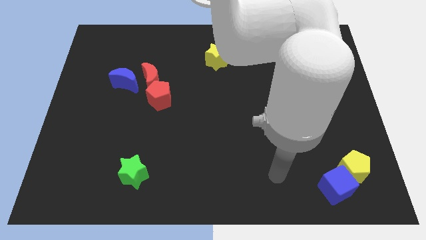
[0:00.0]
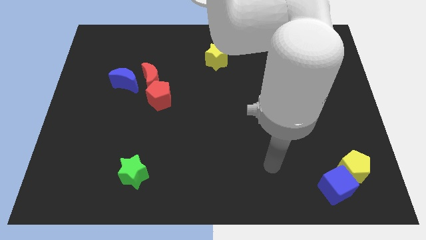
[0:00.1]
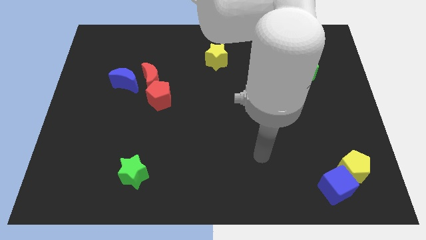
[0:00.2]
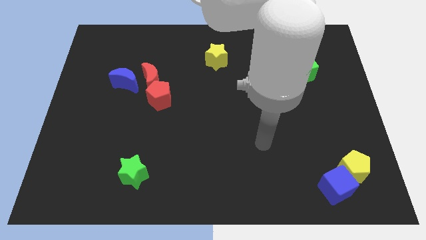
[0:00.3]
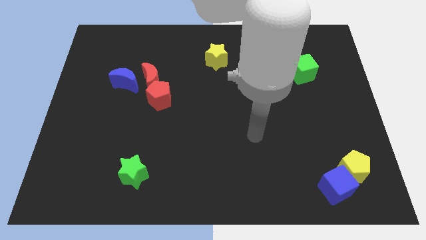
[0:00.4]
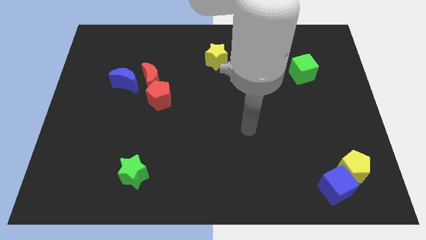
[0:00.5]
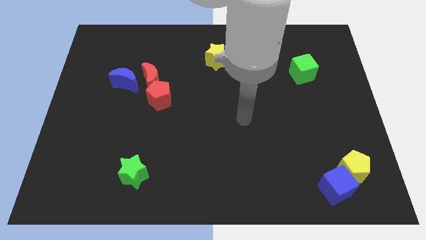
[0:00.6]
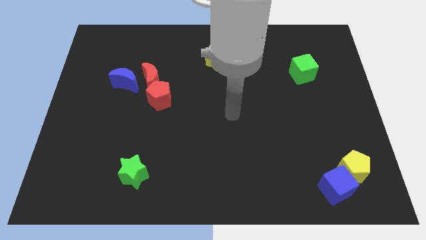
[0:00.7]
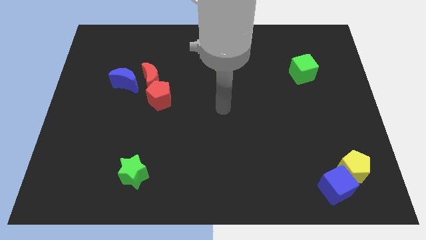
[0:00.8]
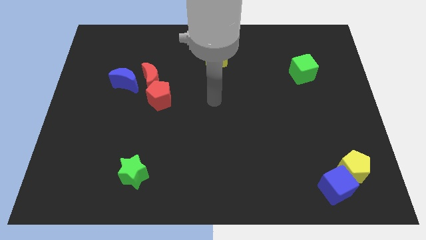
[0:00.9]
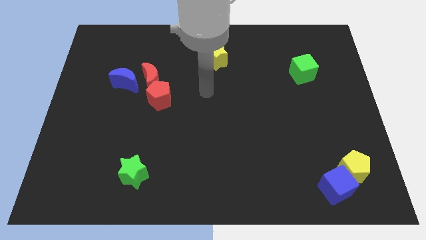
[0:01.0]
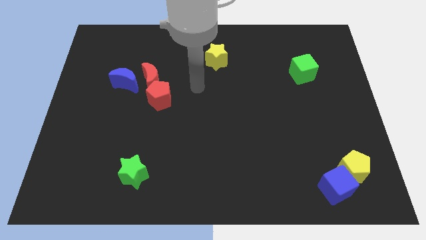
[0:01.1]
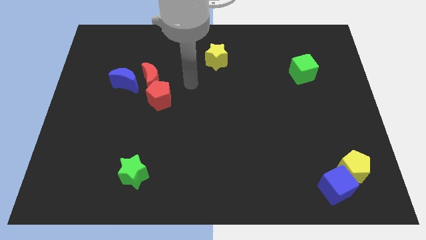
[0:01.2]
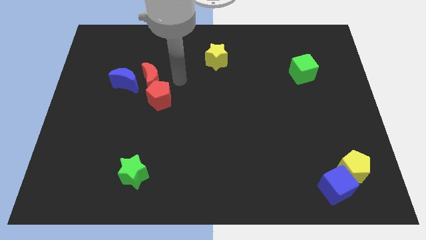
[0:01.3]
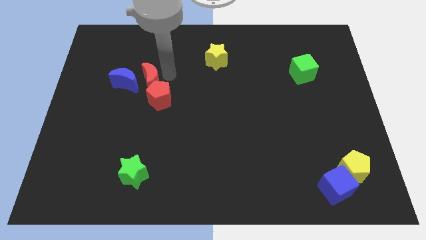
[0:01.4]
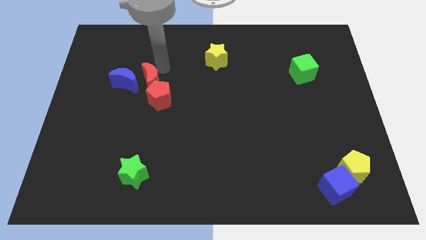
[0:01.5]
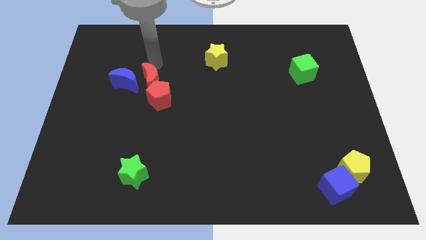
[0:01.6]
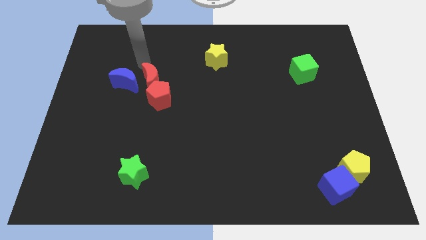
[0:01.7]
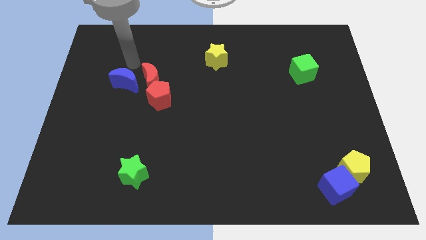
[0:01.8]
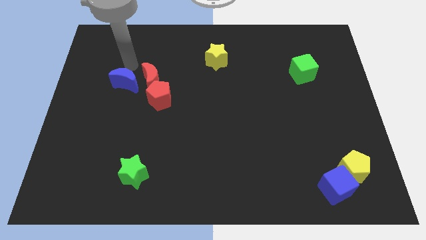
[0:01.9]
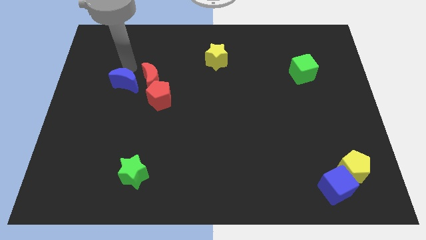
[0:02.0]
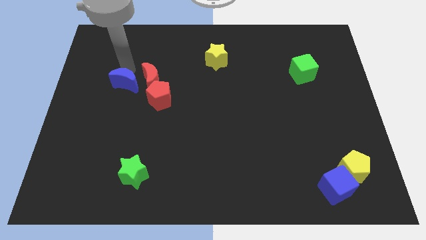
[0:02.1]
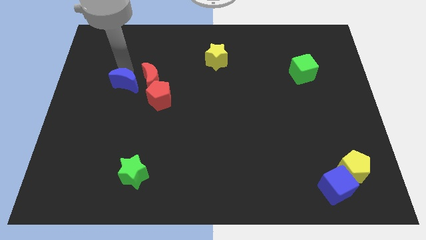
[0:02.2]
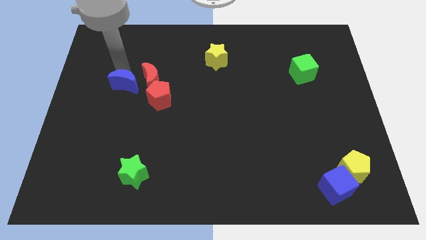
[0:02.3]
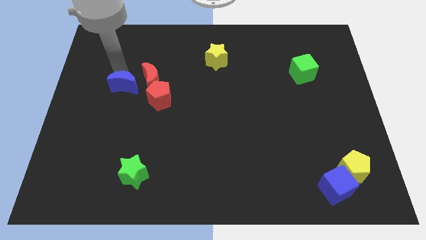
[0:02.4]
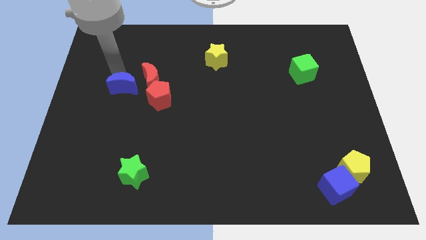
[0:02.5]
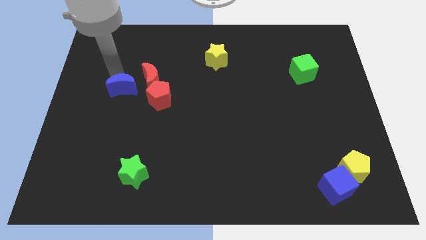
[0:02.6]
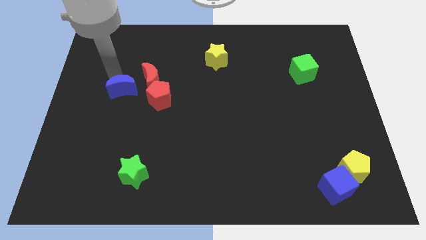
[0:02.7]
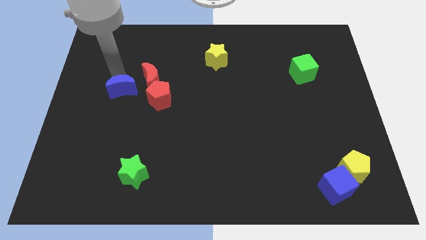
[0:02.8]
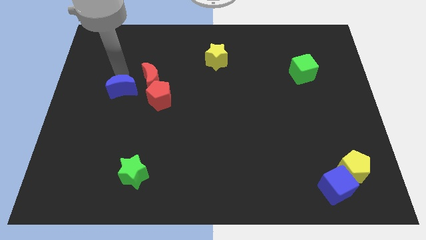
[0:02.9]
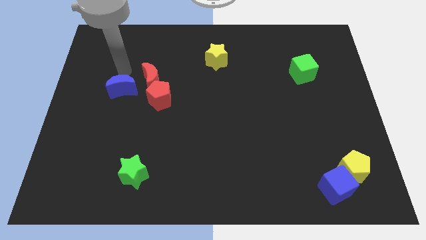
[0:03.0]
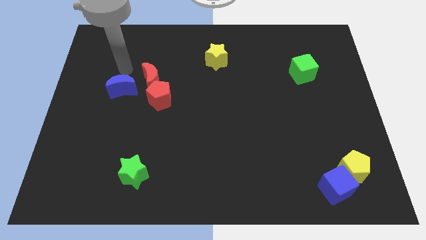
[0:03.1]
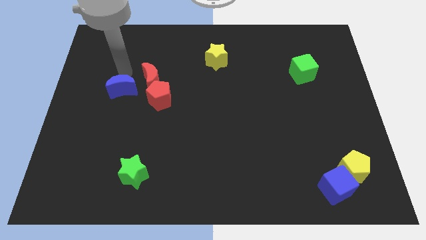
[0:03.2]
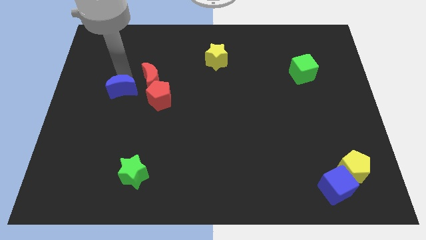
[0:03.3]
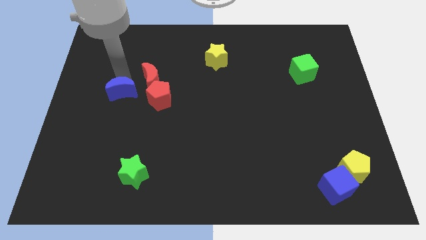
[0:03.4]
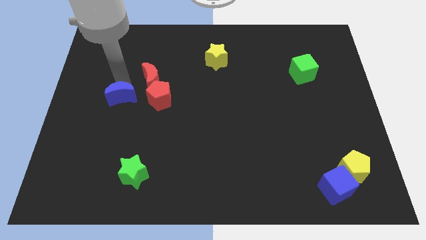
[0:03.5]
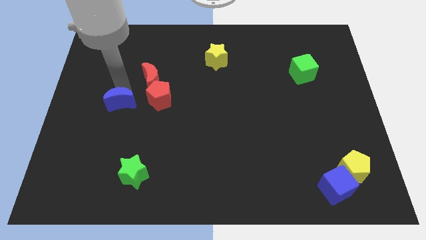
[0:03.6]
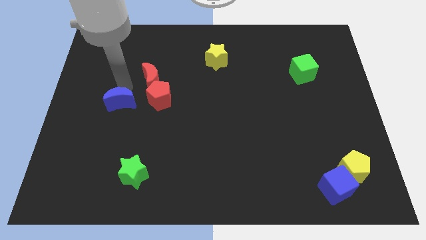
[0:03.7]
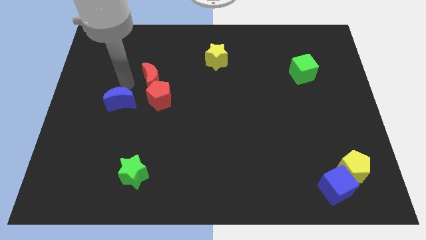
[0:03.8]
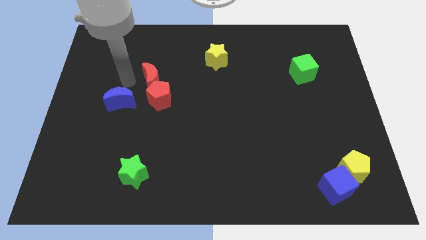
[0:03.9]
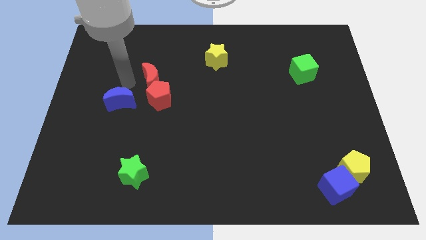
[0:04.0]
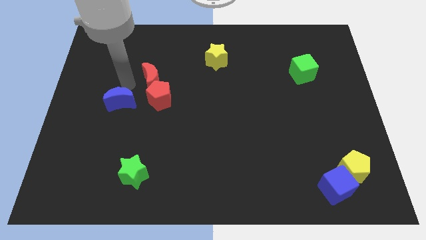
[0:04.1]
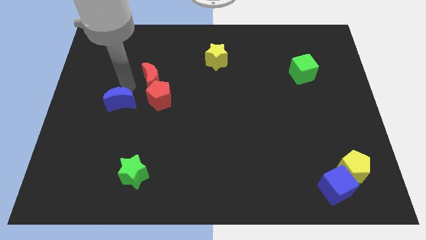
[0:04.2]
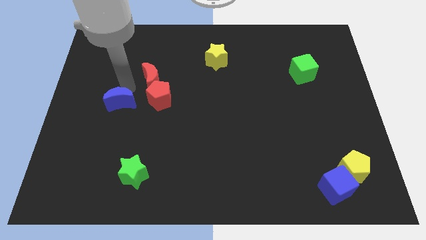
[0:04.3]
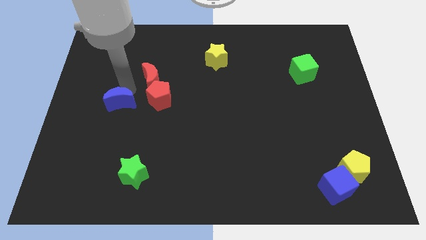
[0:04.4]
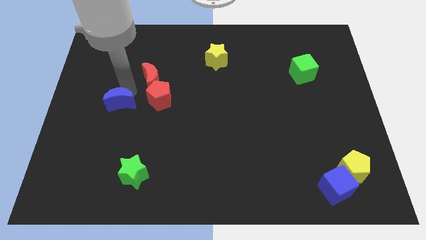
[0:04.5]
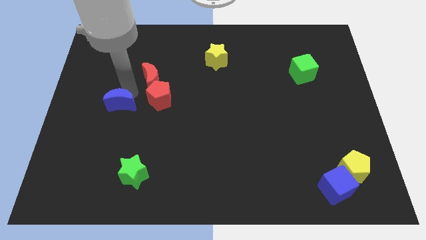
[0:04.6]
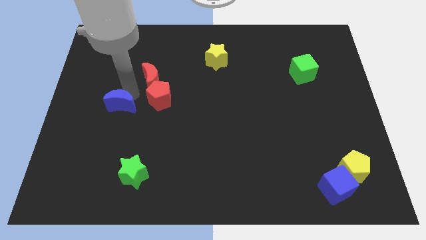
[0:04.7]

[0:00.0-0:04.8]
push the blue moon a little bit down

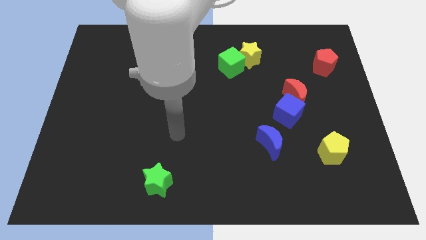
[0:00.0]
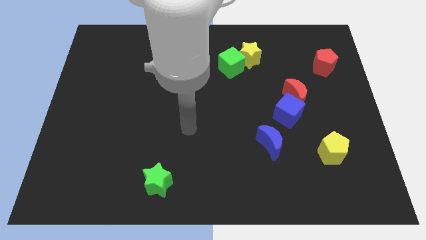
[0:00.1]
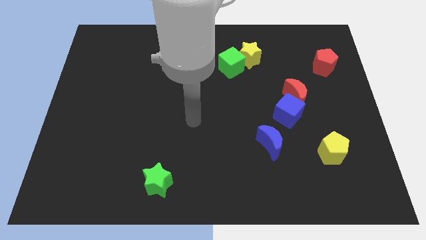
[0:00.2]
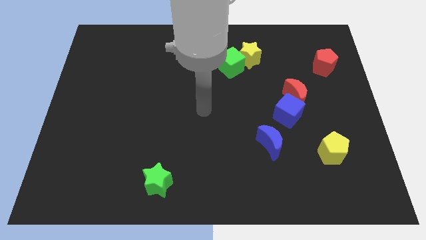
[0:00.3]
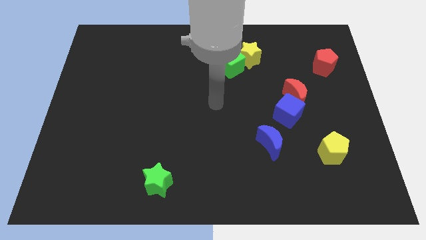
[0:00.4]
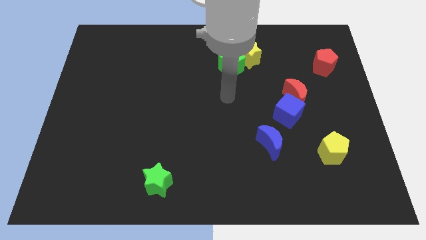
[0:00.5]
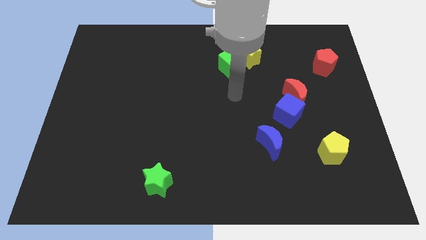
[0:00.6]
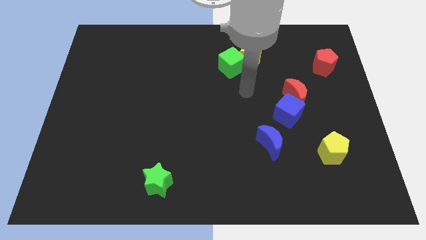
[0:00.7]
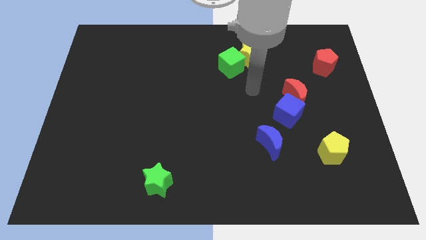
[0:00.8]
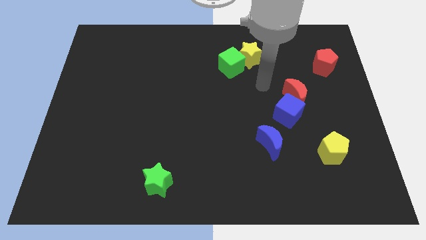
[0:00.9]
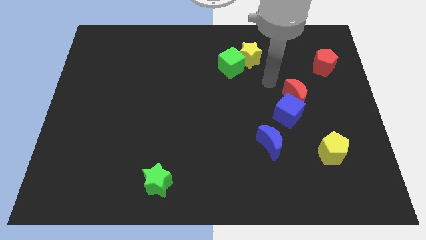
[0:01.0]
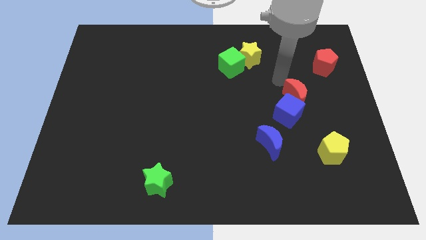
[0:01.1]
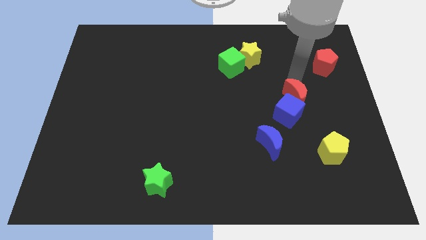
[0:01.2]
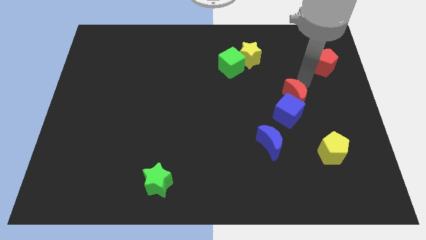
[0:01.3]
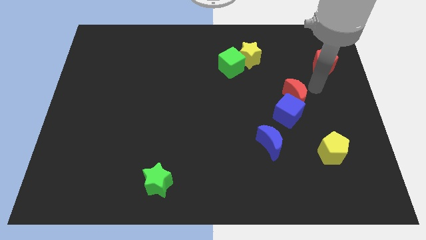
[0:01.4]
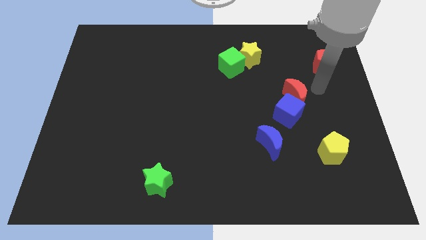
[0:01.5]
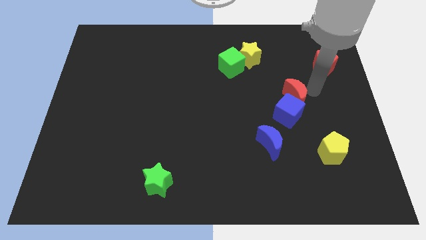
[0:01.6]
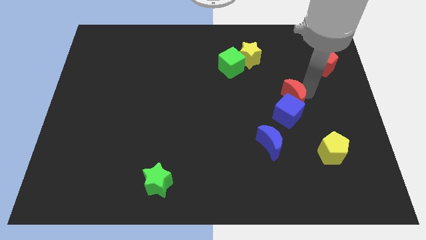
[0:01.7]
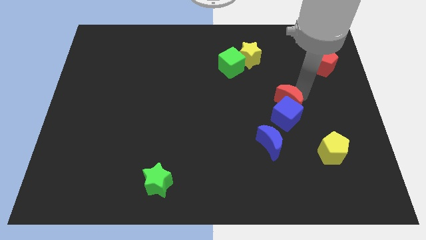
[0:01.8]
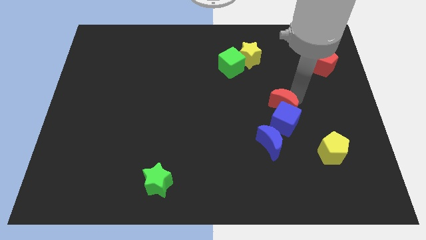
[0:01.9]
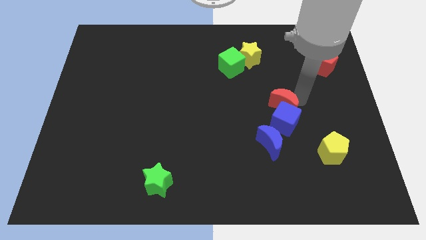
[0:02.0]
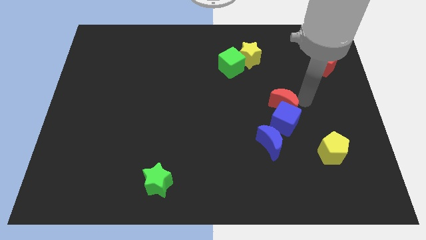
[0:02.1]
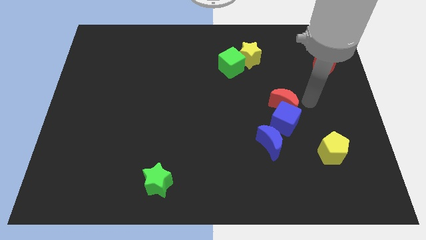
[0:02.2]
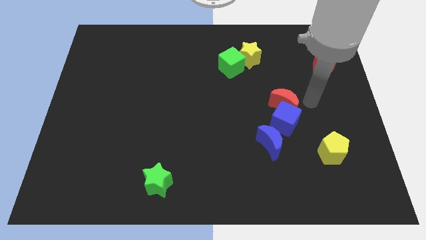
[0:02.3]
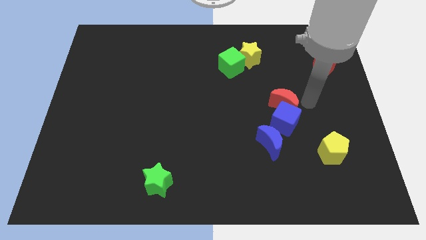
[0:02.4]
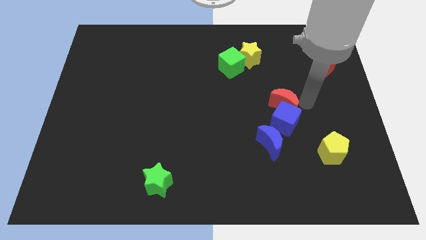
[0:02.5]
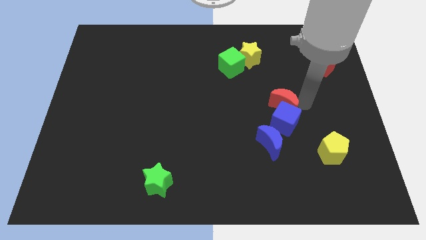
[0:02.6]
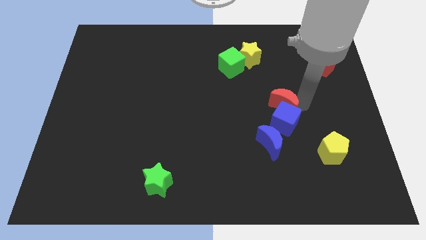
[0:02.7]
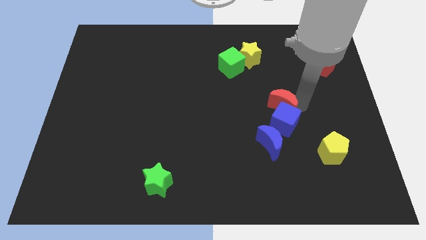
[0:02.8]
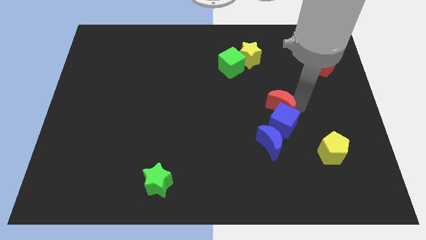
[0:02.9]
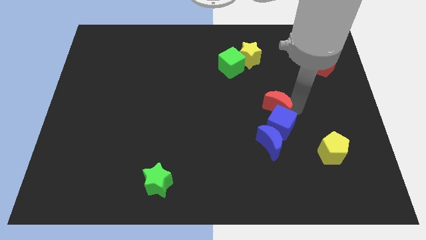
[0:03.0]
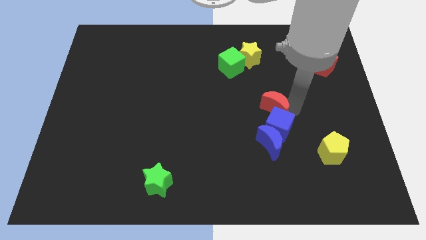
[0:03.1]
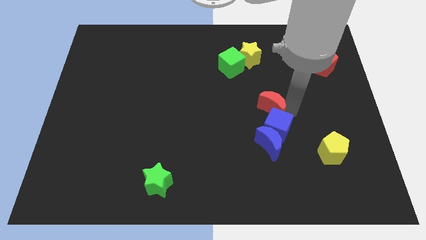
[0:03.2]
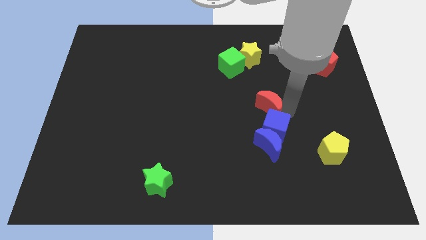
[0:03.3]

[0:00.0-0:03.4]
slightly slide the red moon downwards and then left
